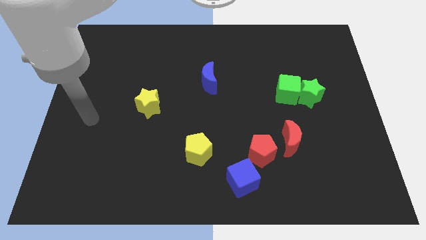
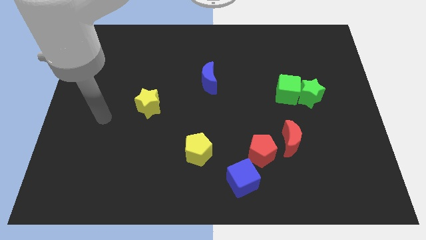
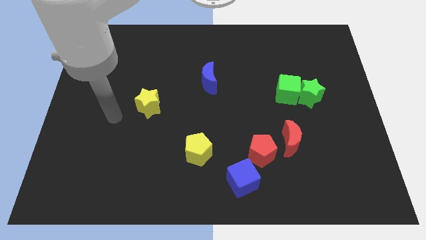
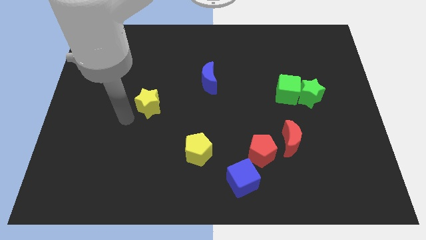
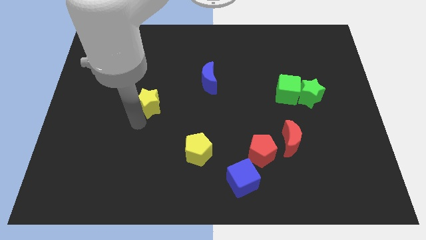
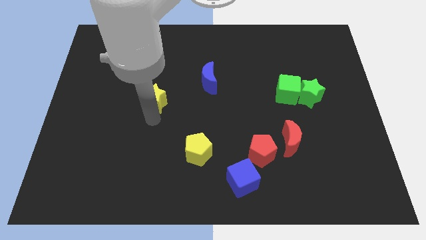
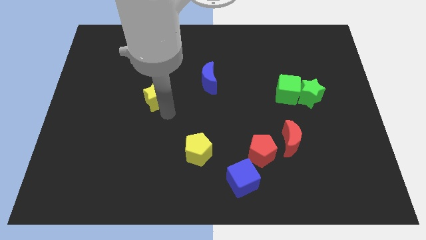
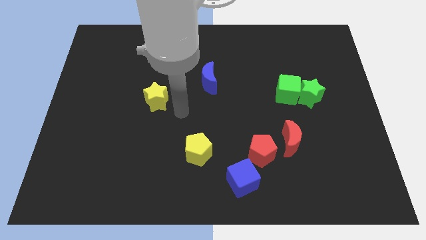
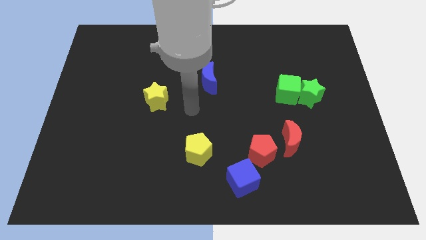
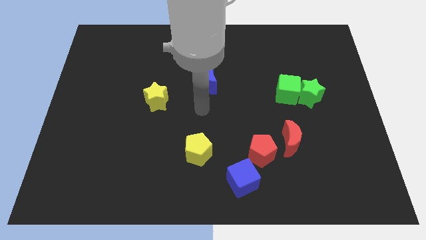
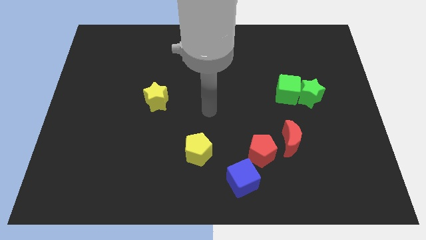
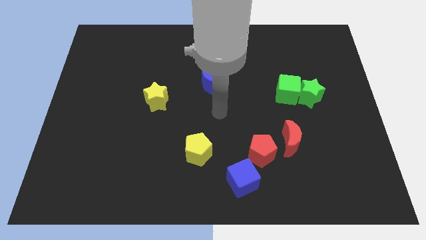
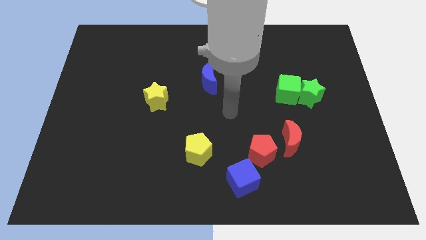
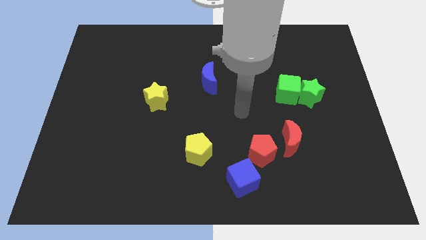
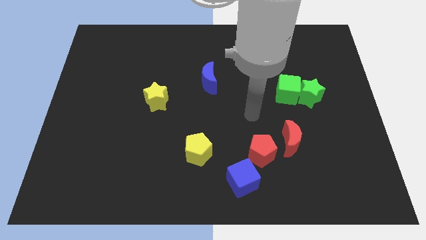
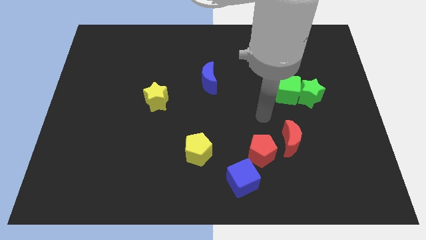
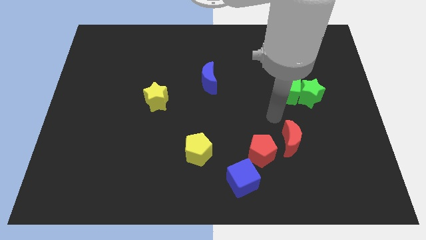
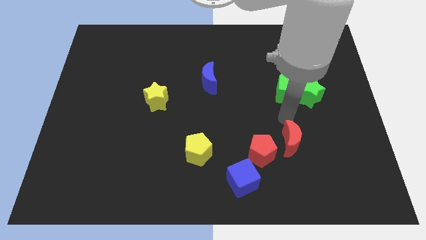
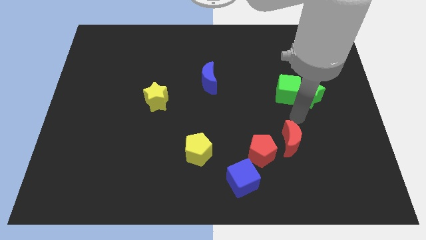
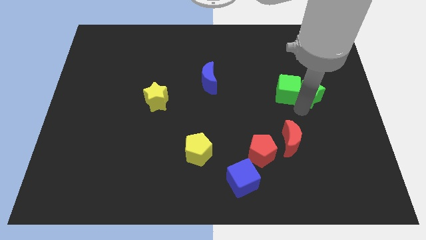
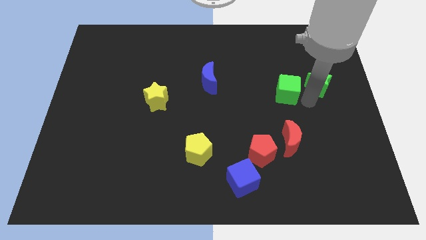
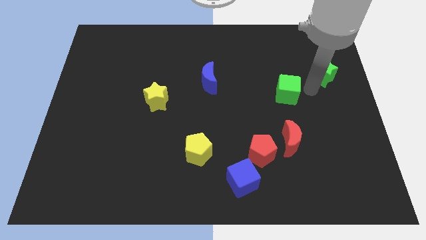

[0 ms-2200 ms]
move the green cube away from the green star

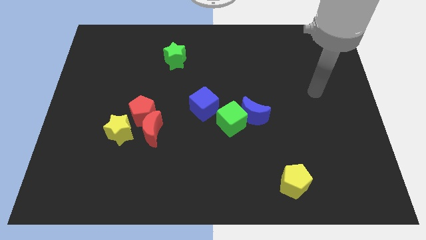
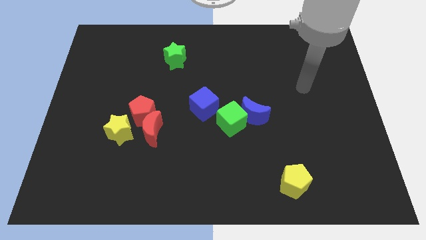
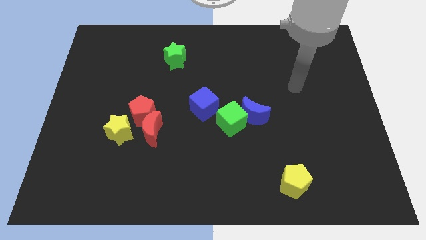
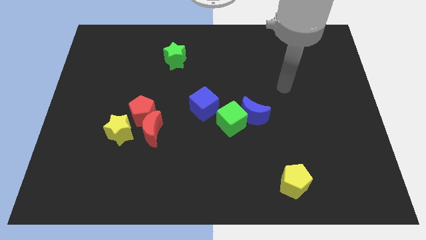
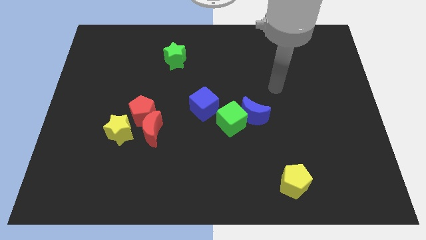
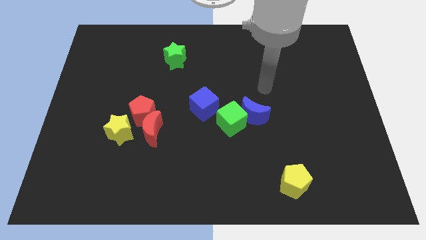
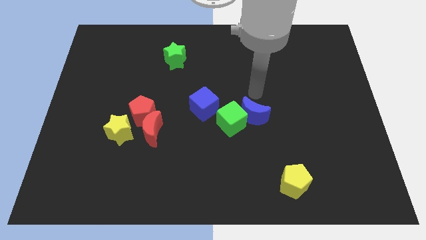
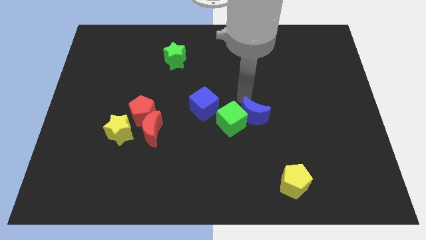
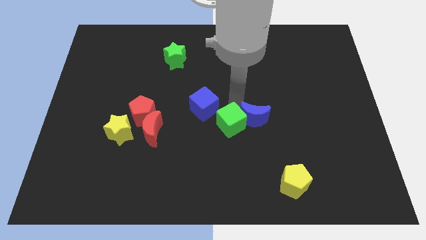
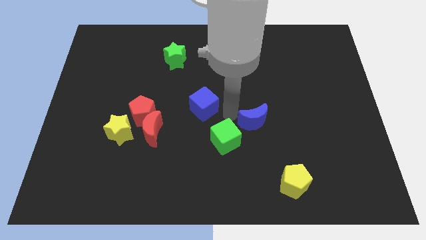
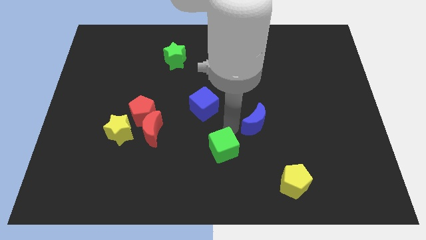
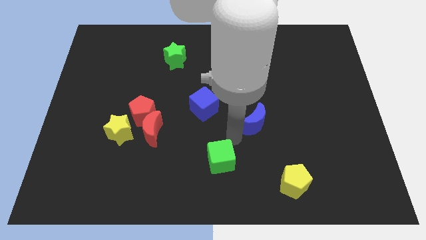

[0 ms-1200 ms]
pull the blue moon apart from the green cube

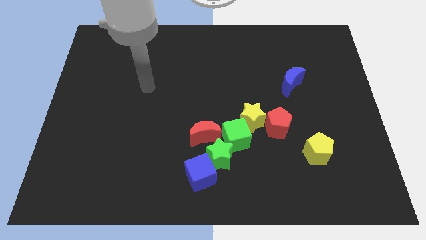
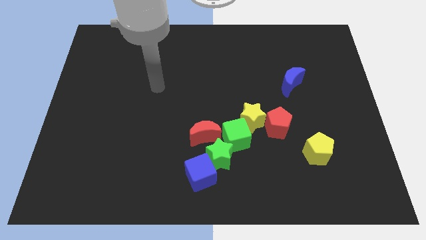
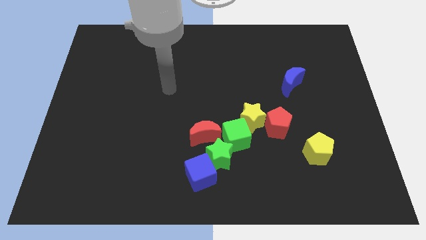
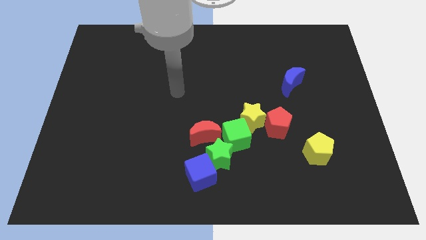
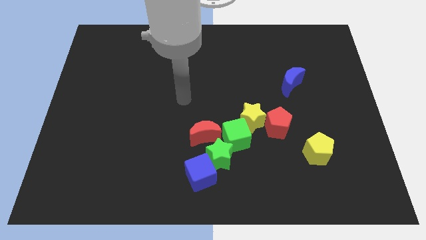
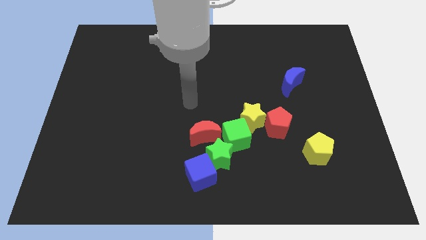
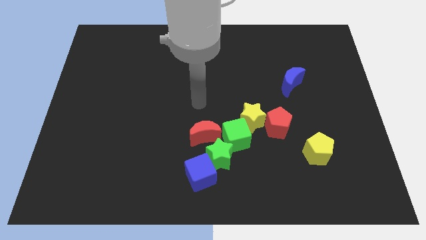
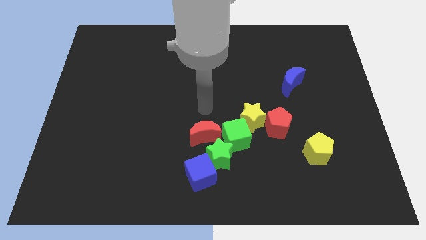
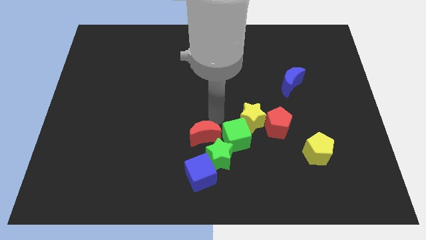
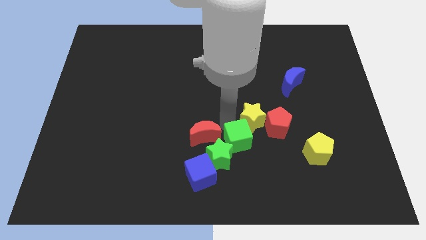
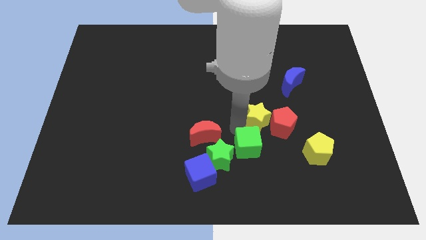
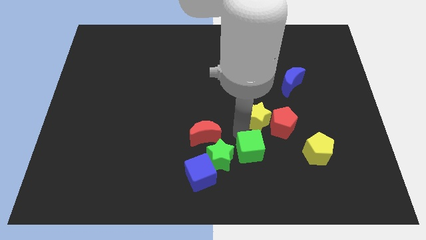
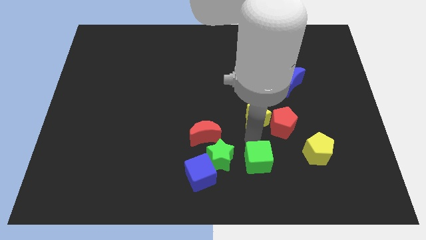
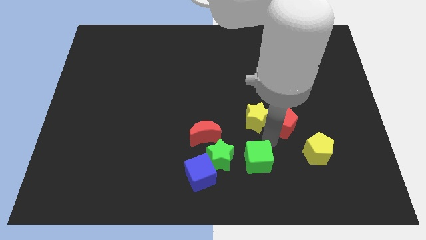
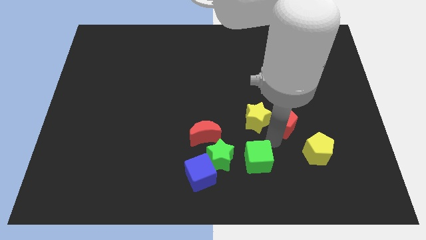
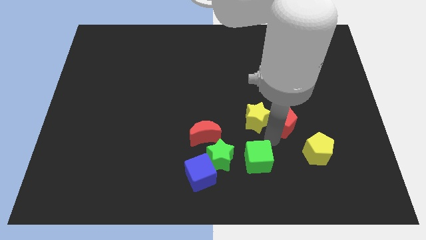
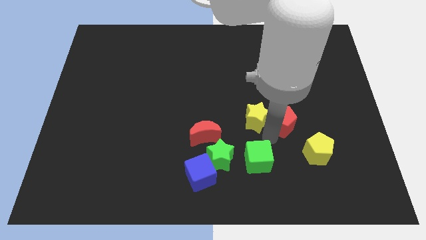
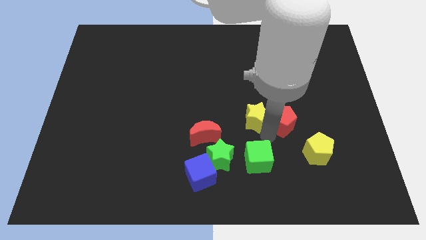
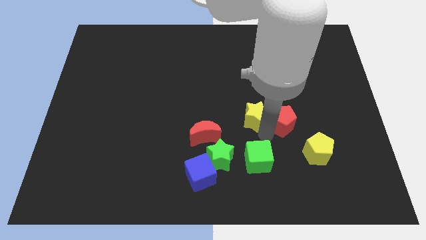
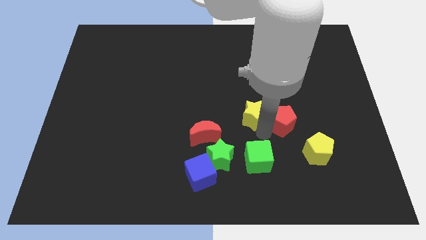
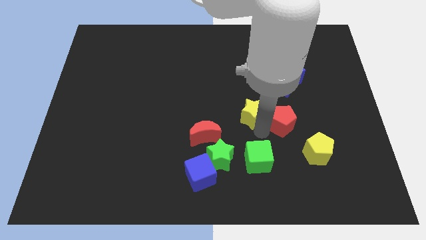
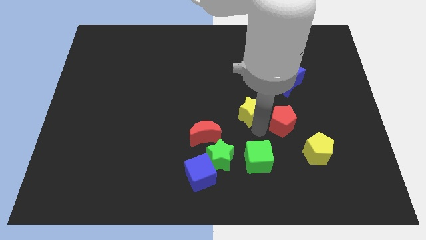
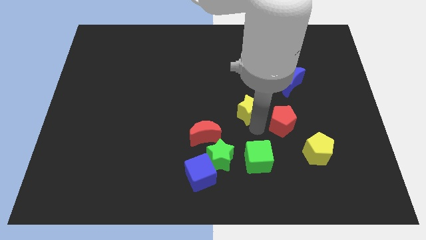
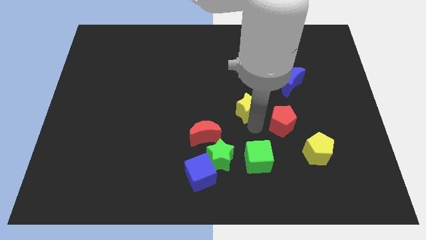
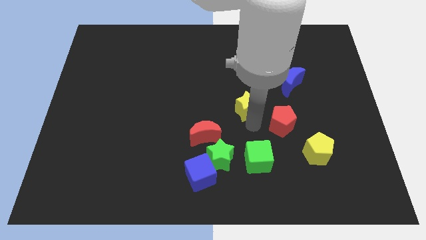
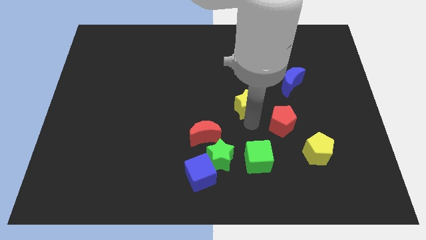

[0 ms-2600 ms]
move the yellow star away from the red pentagon and green cube

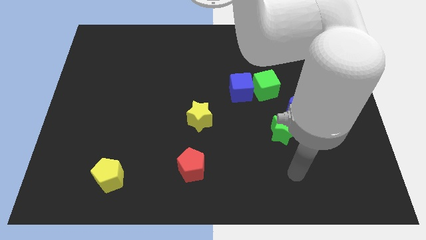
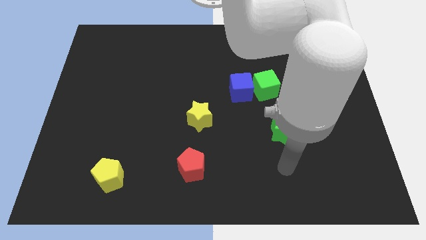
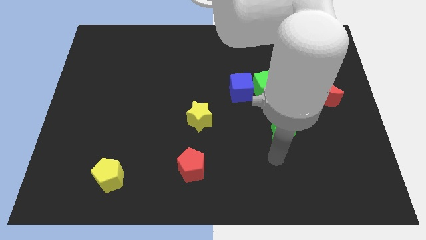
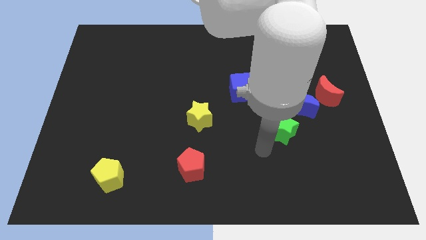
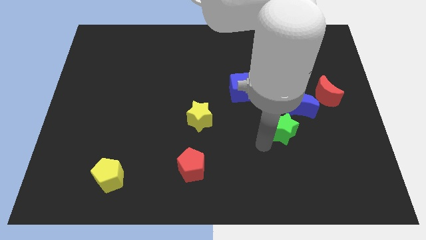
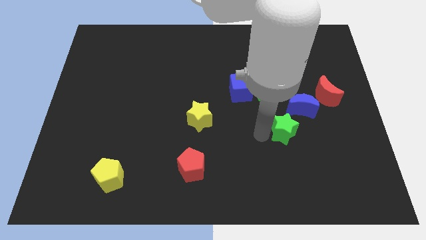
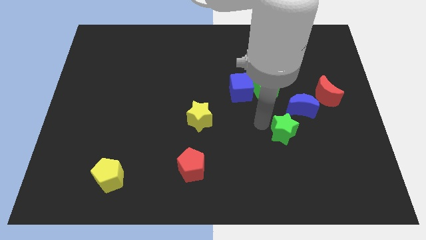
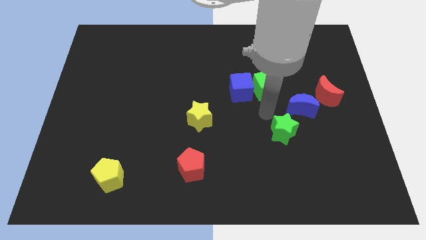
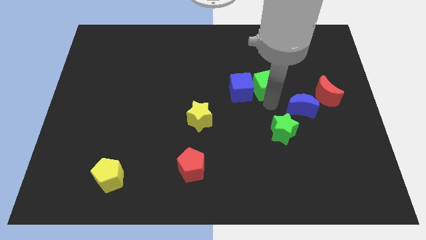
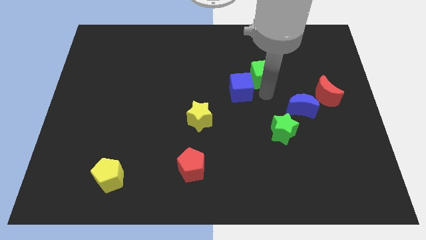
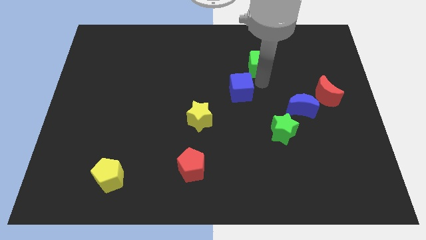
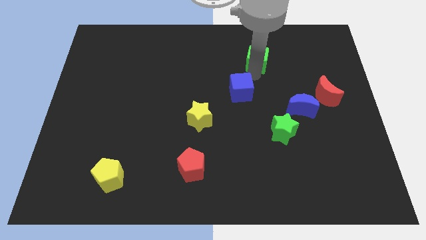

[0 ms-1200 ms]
pull the blue cube apart from the green cube

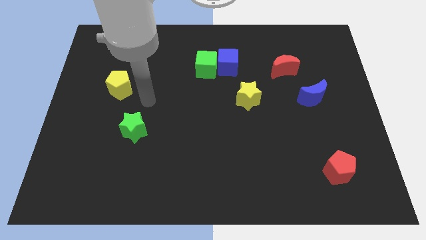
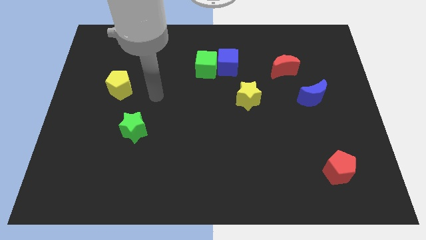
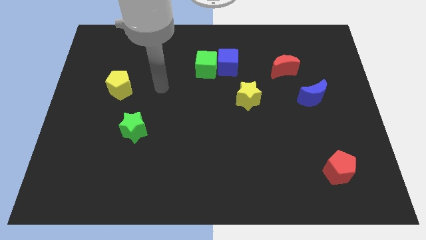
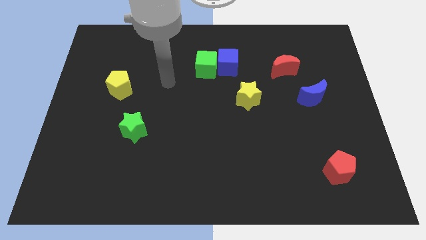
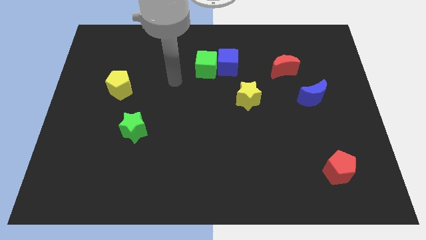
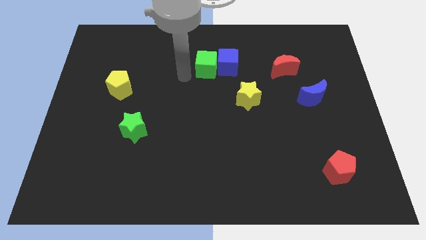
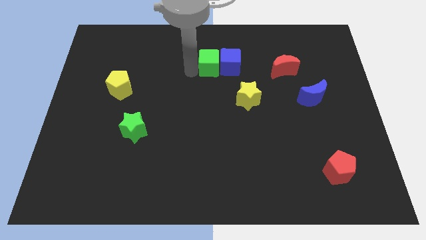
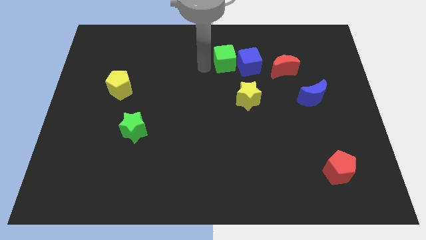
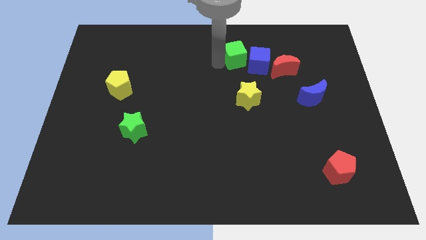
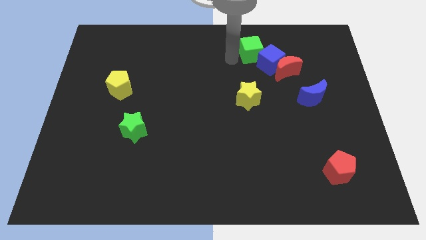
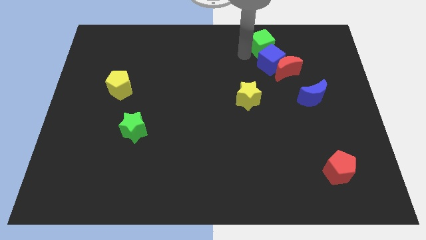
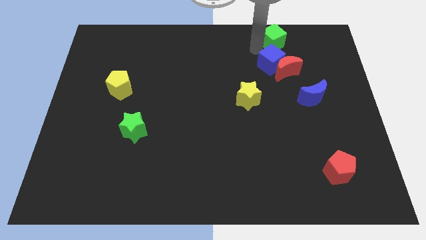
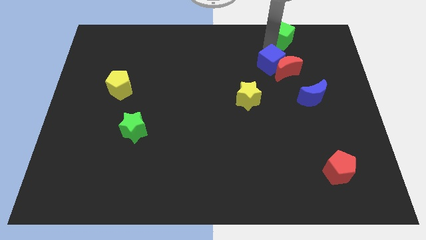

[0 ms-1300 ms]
move the blue cube away from the green cube

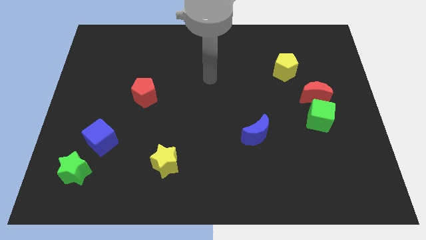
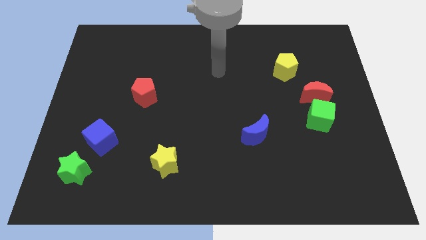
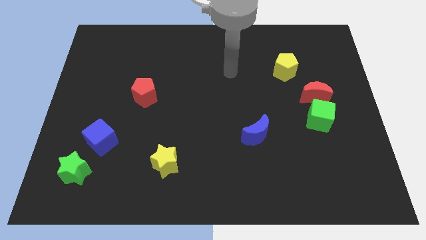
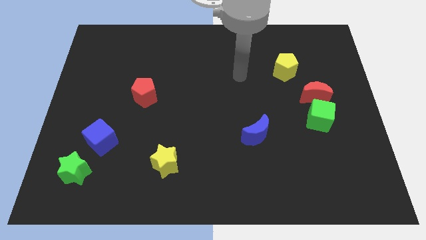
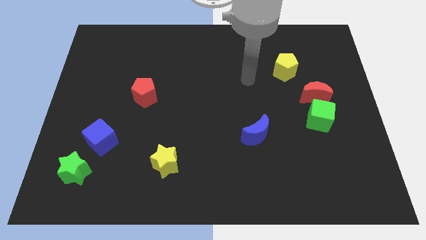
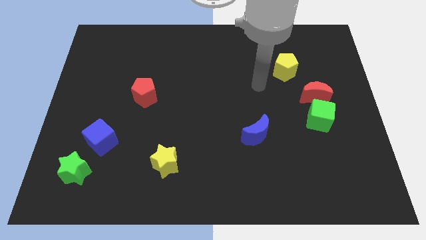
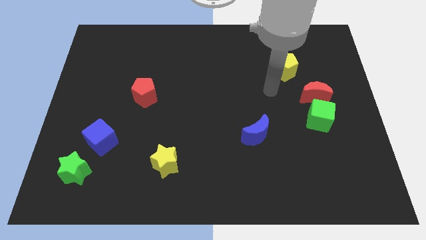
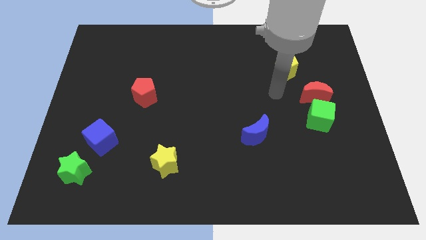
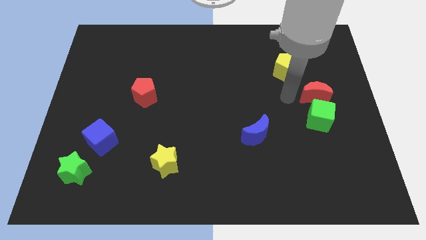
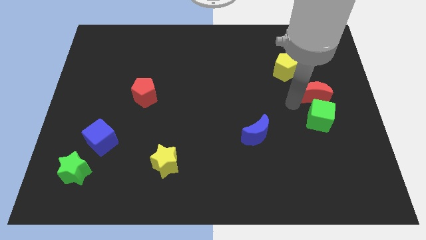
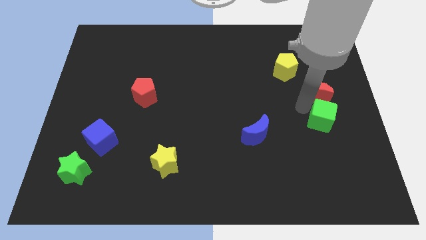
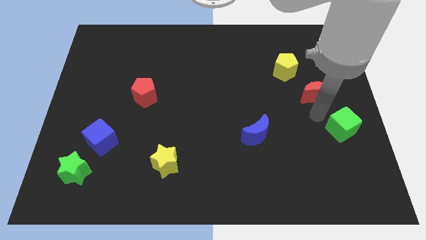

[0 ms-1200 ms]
separate the red moon from the green cube
